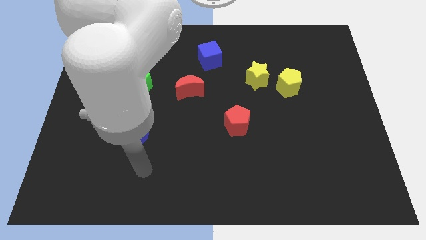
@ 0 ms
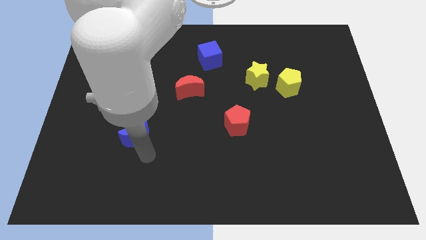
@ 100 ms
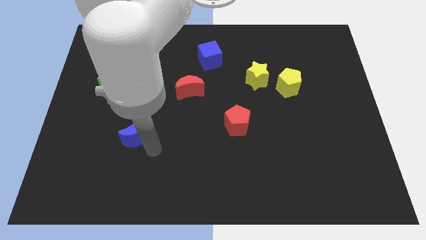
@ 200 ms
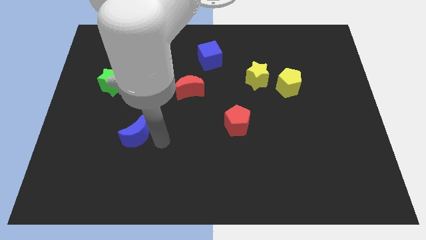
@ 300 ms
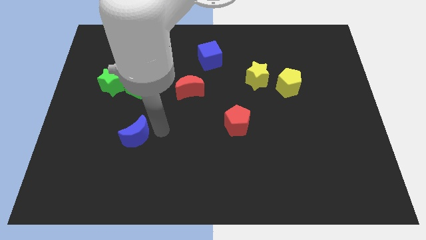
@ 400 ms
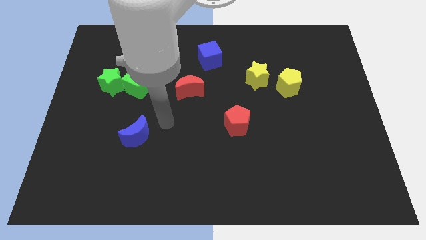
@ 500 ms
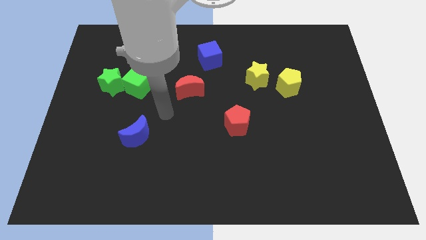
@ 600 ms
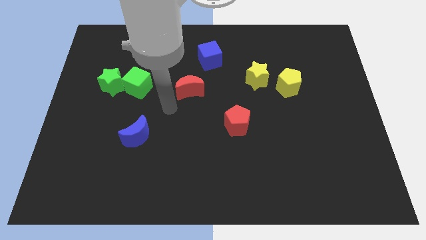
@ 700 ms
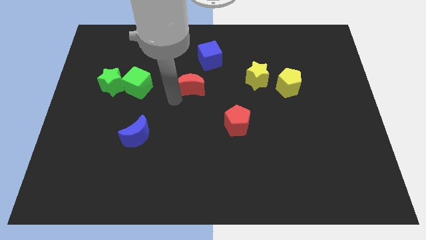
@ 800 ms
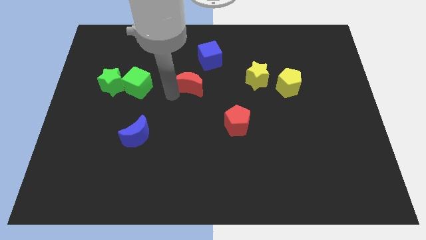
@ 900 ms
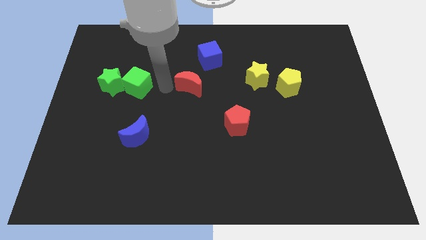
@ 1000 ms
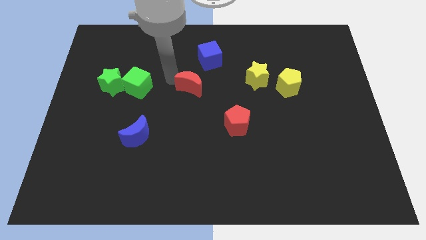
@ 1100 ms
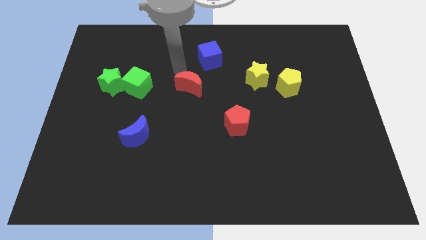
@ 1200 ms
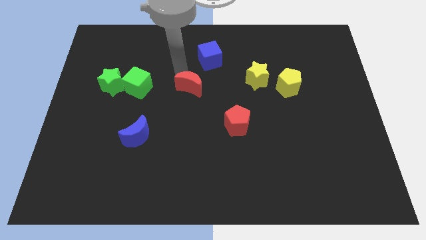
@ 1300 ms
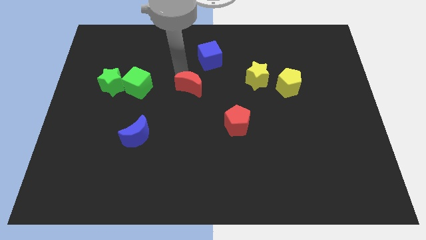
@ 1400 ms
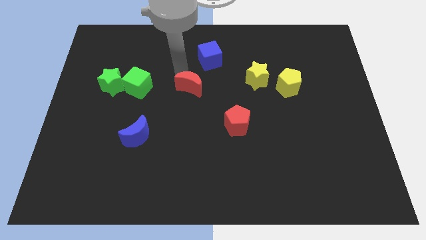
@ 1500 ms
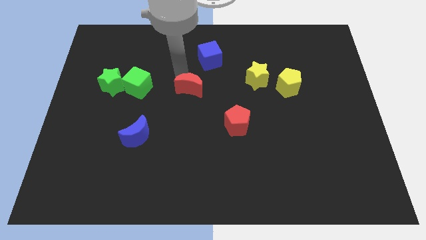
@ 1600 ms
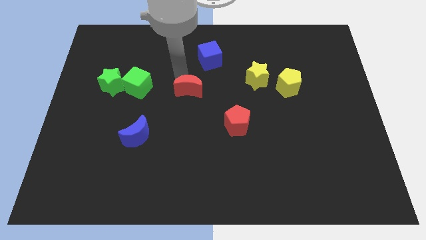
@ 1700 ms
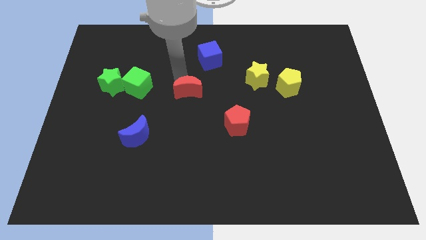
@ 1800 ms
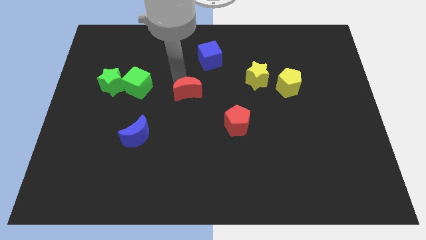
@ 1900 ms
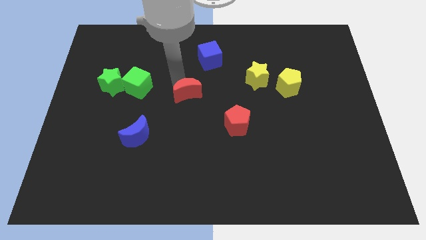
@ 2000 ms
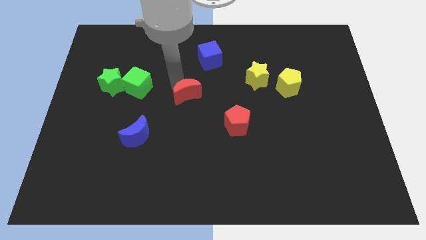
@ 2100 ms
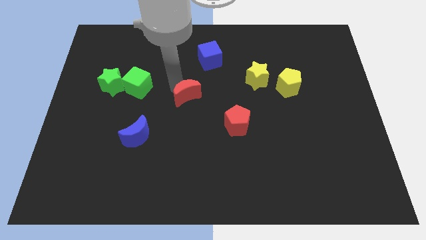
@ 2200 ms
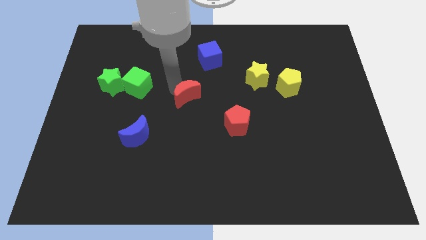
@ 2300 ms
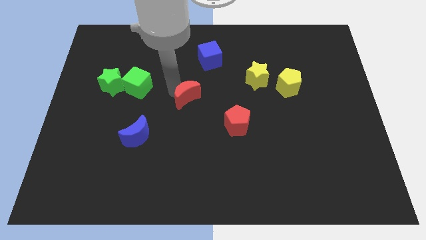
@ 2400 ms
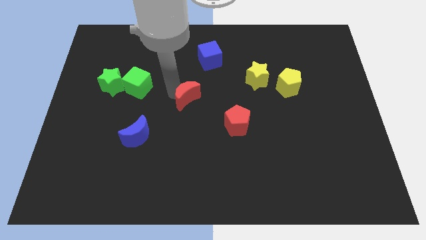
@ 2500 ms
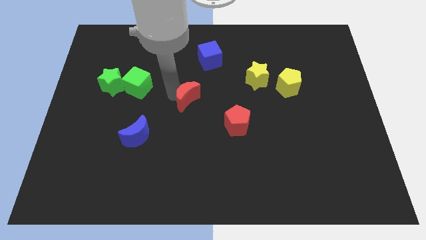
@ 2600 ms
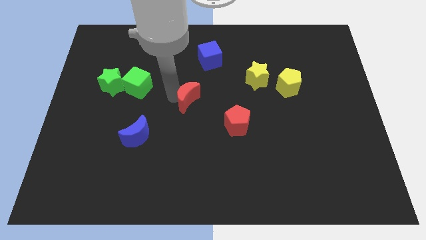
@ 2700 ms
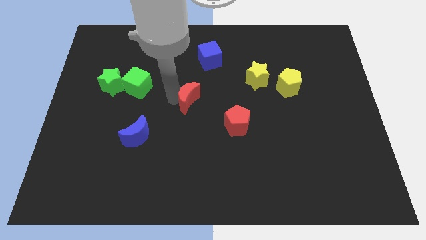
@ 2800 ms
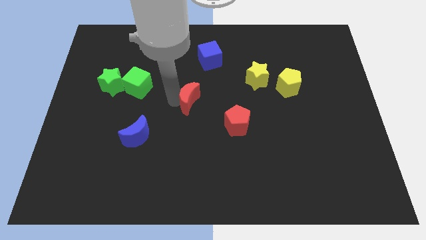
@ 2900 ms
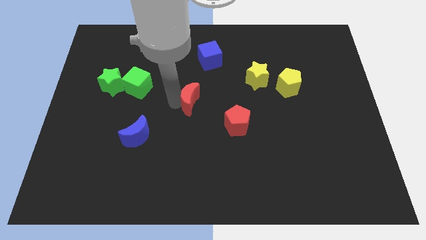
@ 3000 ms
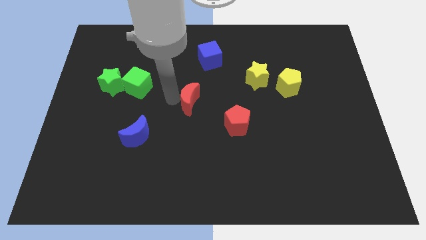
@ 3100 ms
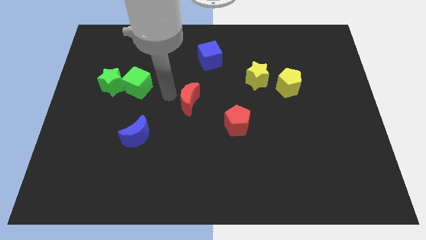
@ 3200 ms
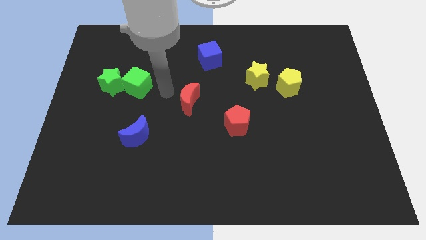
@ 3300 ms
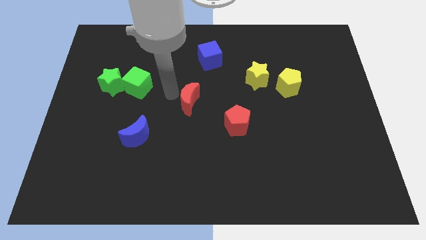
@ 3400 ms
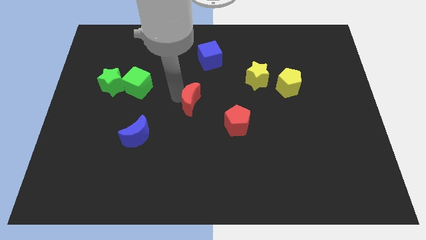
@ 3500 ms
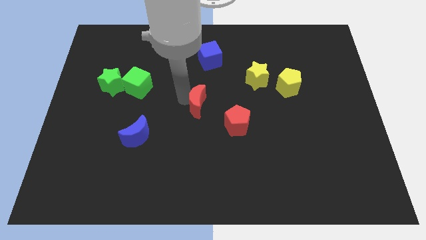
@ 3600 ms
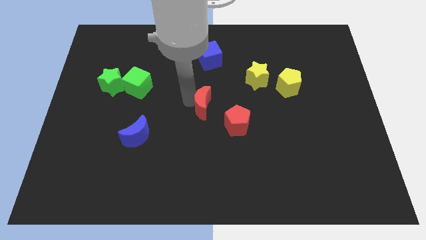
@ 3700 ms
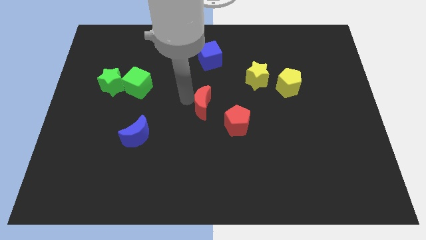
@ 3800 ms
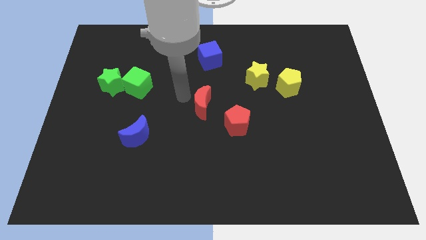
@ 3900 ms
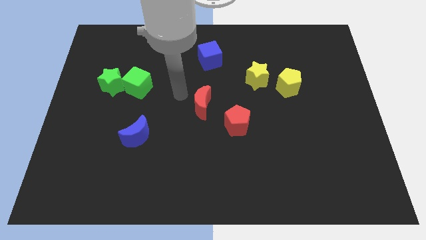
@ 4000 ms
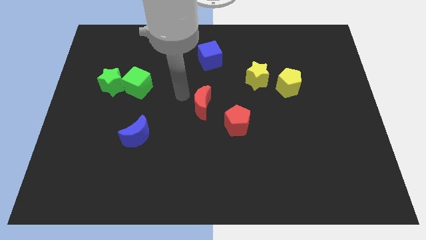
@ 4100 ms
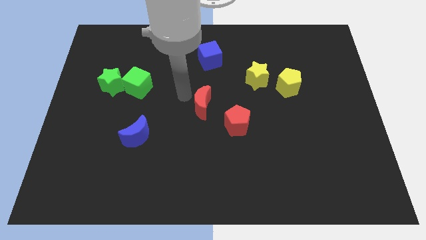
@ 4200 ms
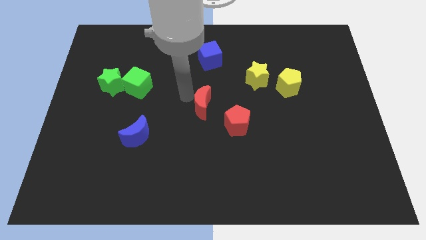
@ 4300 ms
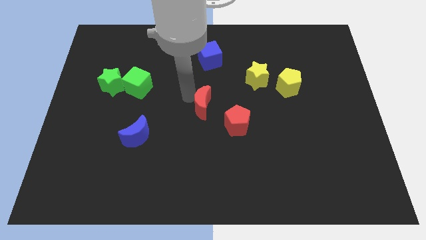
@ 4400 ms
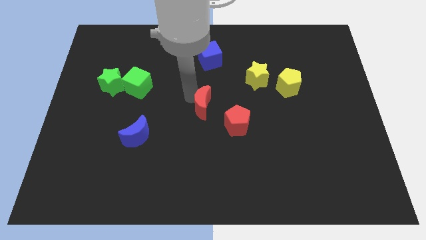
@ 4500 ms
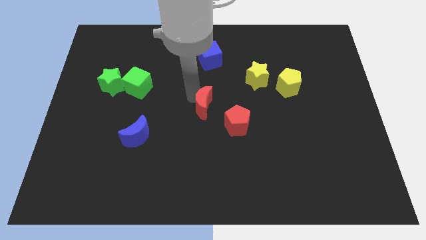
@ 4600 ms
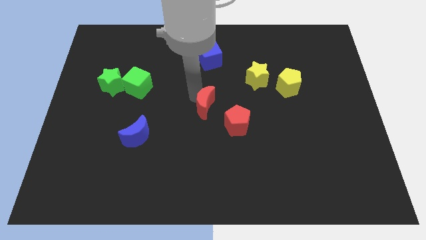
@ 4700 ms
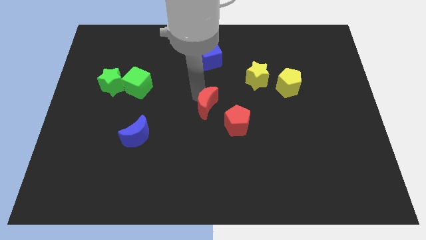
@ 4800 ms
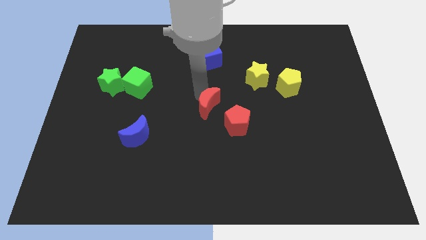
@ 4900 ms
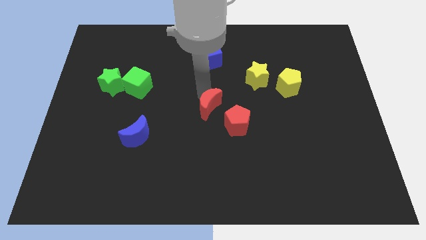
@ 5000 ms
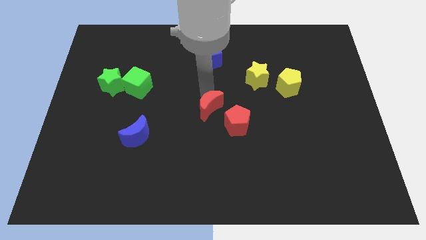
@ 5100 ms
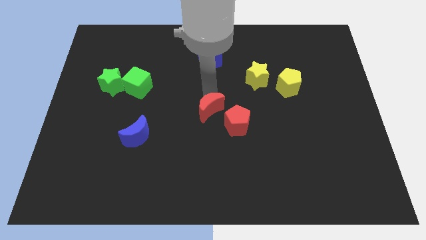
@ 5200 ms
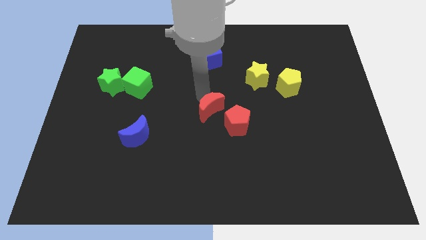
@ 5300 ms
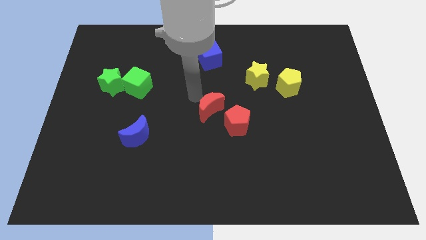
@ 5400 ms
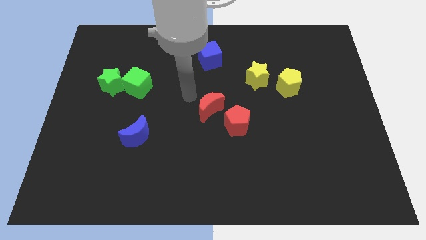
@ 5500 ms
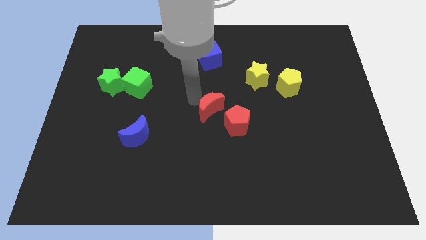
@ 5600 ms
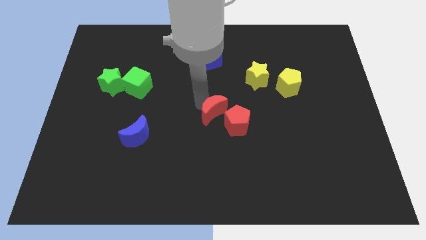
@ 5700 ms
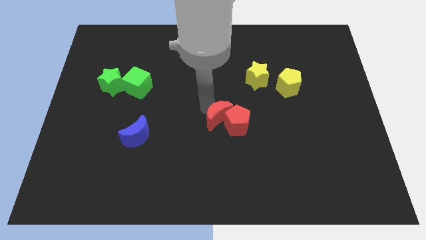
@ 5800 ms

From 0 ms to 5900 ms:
move the red moon towards the red pentagon

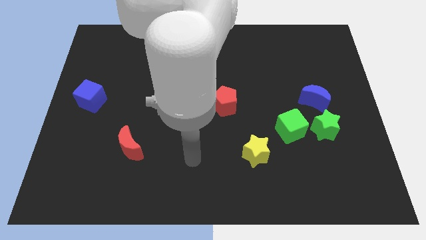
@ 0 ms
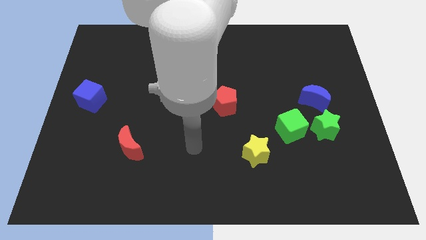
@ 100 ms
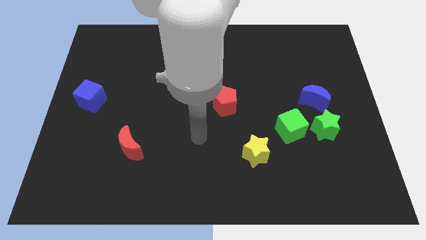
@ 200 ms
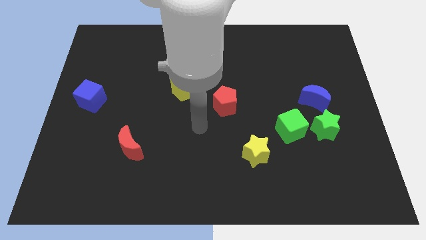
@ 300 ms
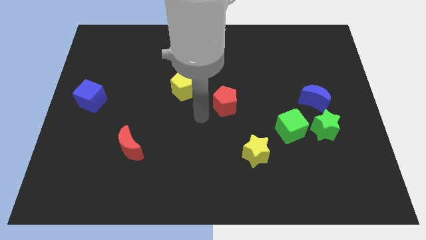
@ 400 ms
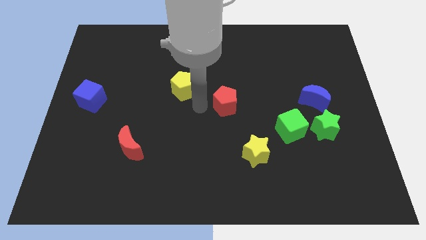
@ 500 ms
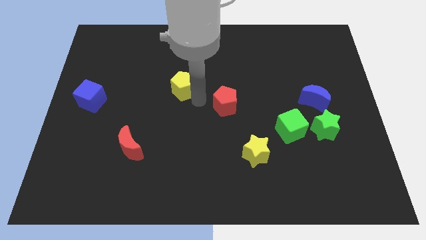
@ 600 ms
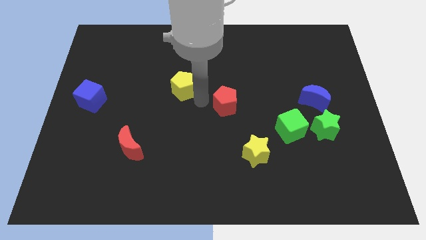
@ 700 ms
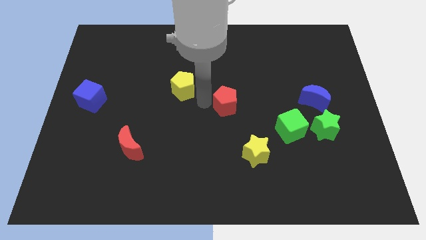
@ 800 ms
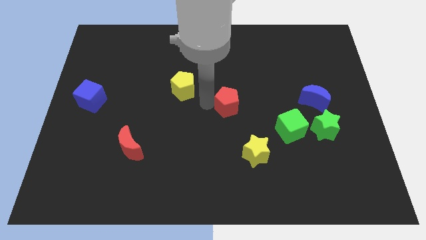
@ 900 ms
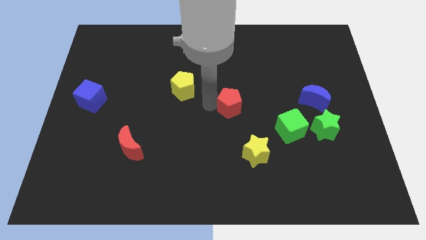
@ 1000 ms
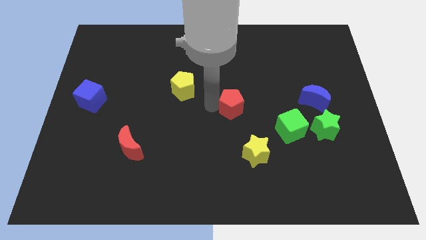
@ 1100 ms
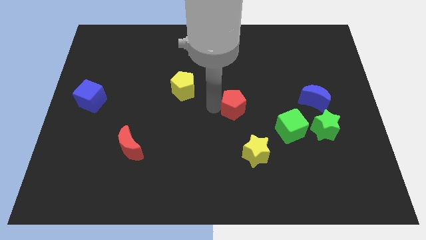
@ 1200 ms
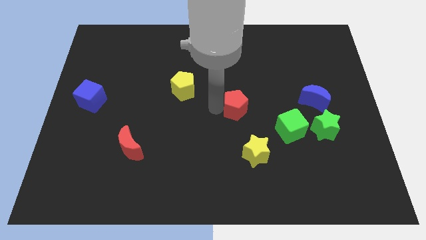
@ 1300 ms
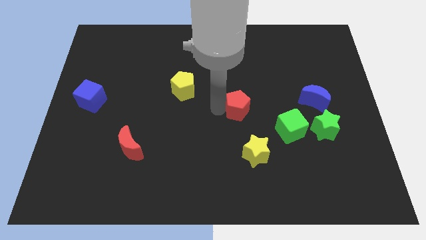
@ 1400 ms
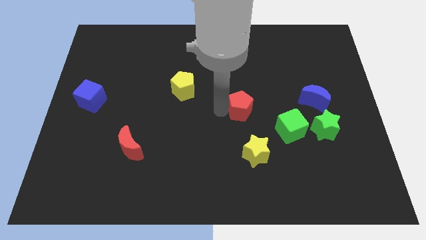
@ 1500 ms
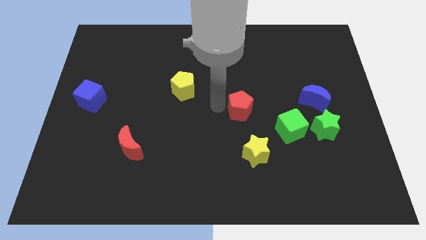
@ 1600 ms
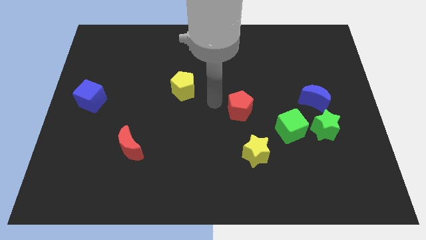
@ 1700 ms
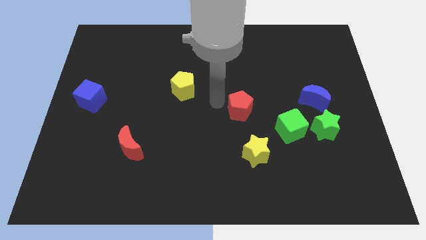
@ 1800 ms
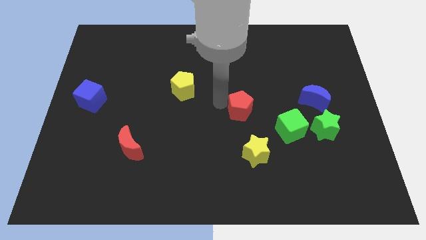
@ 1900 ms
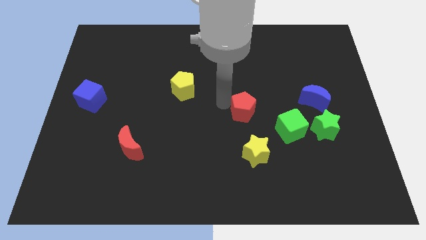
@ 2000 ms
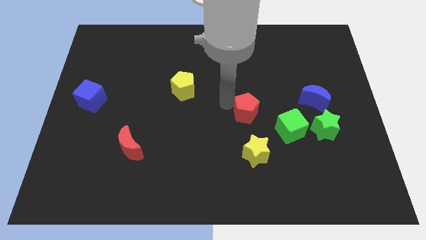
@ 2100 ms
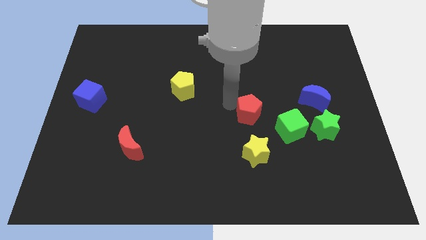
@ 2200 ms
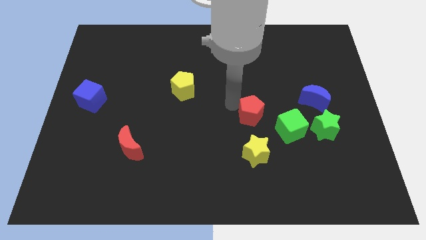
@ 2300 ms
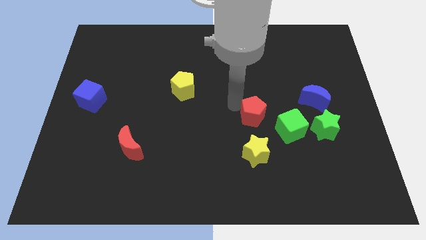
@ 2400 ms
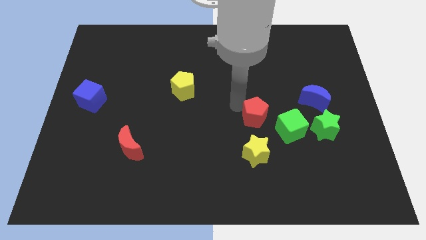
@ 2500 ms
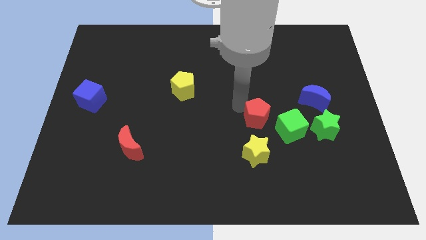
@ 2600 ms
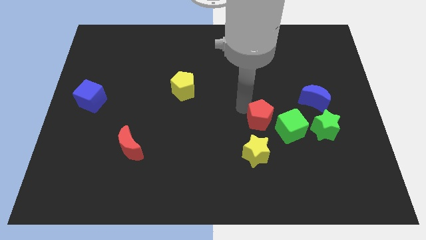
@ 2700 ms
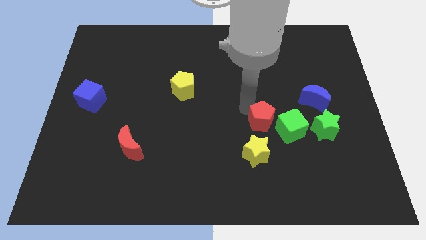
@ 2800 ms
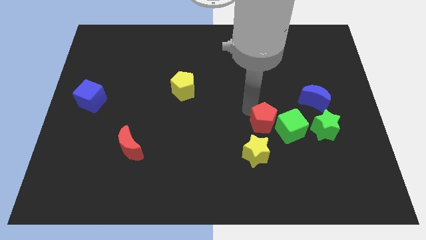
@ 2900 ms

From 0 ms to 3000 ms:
put the red pentagon towards the green cube
